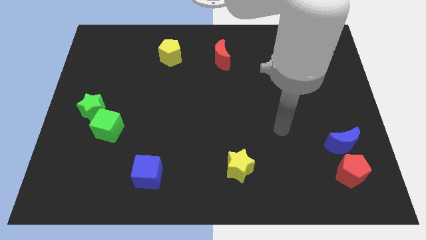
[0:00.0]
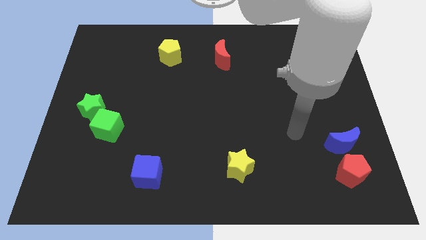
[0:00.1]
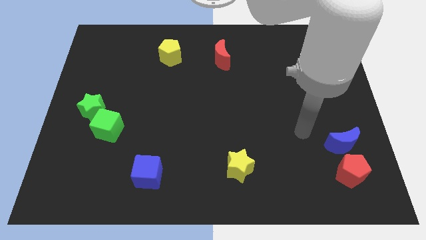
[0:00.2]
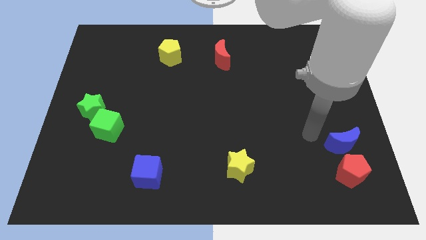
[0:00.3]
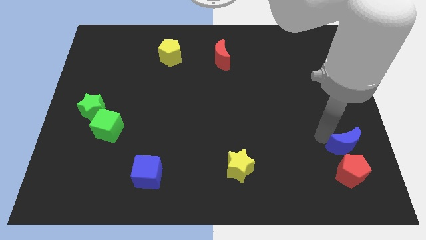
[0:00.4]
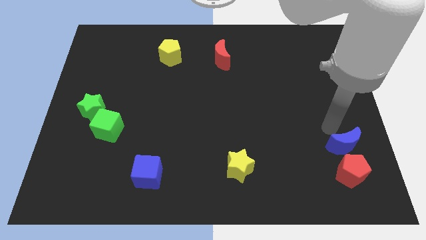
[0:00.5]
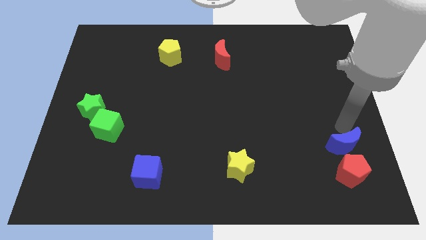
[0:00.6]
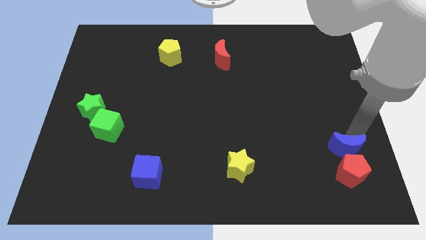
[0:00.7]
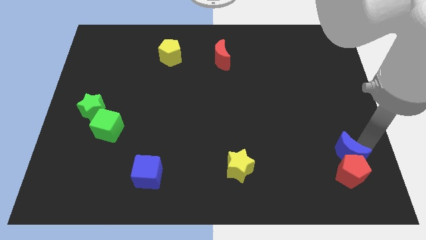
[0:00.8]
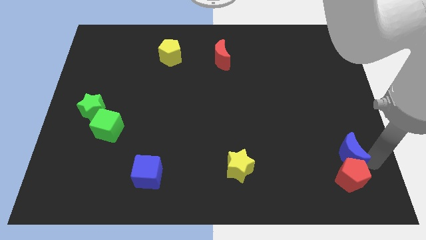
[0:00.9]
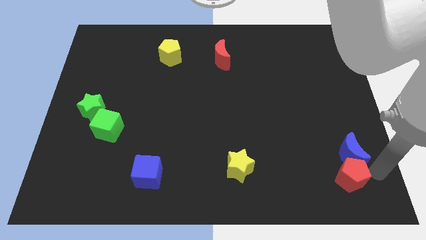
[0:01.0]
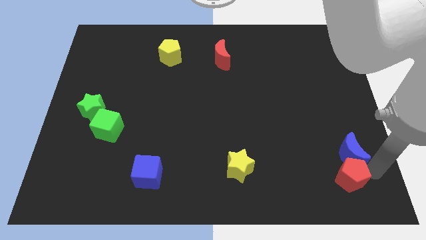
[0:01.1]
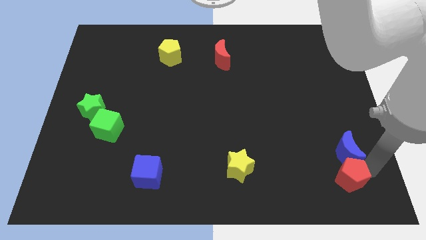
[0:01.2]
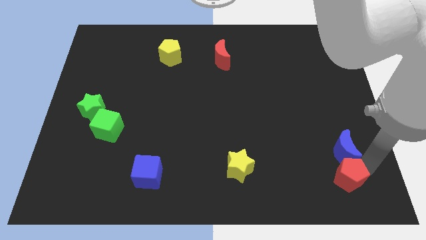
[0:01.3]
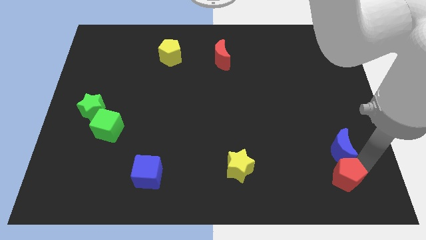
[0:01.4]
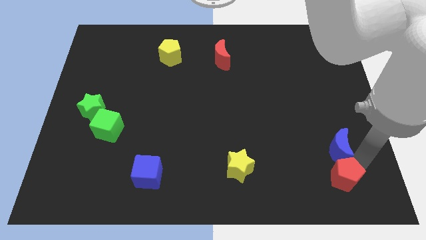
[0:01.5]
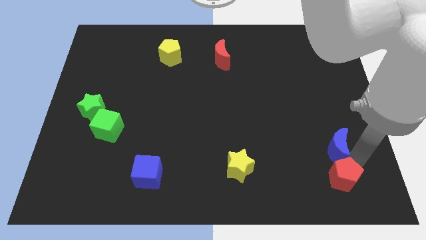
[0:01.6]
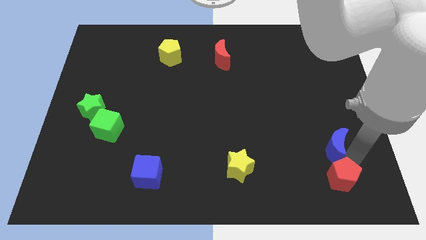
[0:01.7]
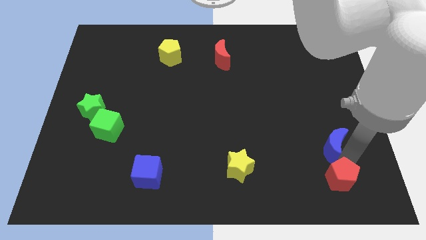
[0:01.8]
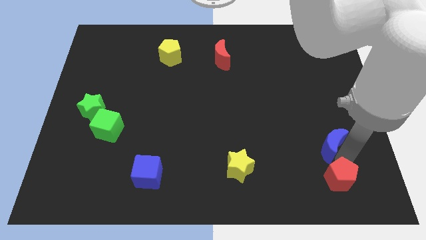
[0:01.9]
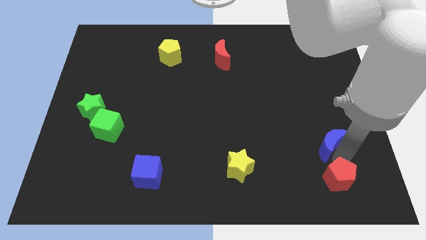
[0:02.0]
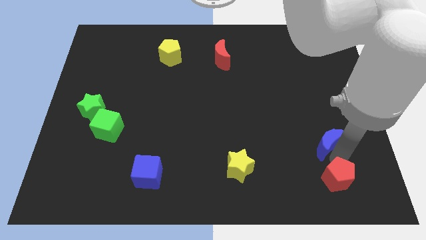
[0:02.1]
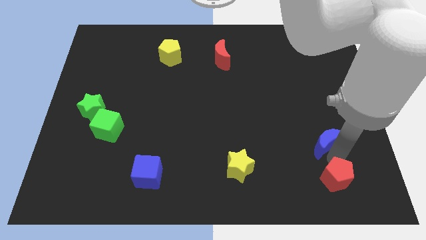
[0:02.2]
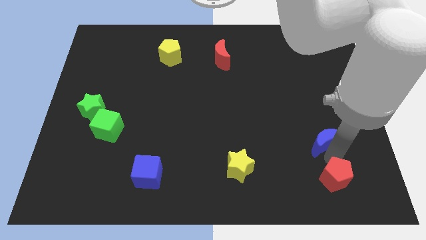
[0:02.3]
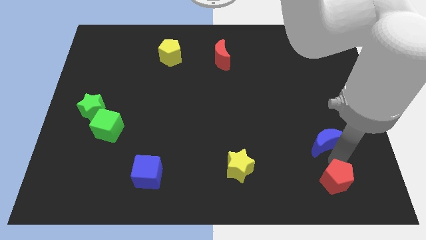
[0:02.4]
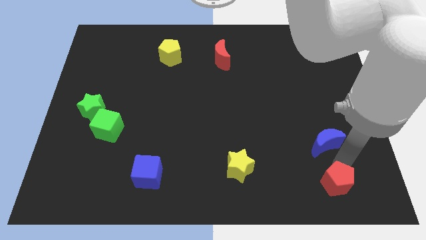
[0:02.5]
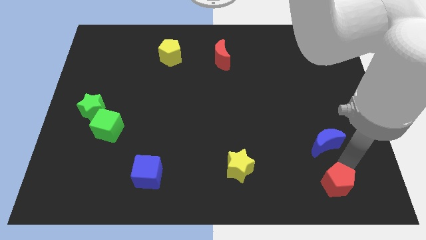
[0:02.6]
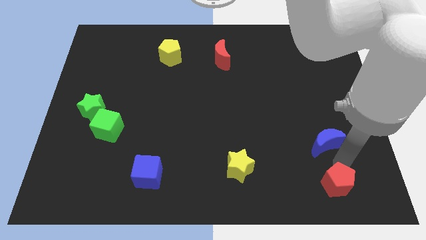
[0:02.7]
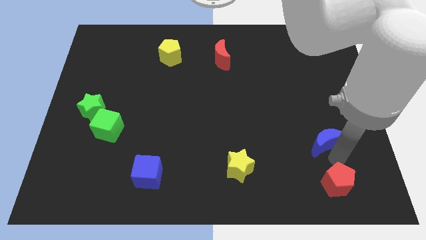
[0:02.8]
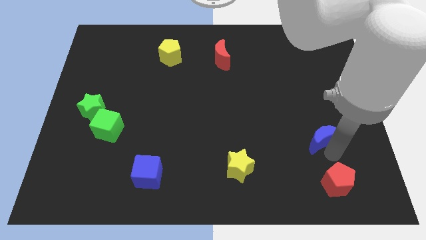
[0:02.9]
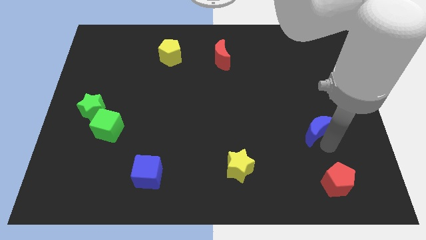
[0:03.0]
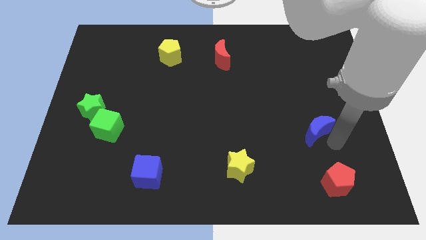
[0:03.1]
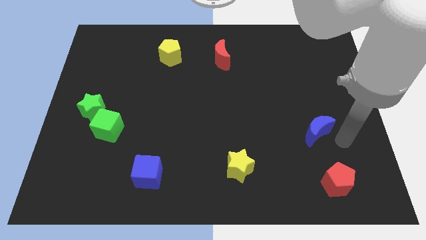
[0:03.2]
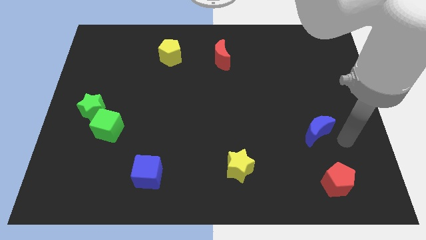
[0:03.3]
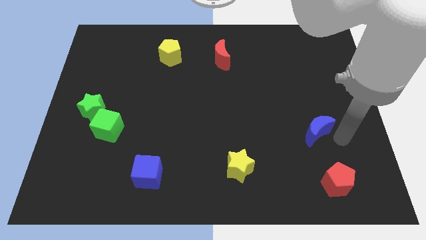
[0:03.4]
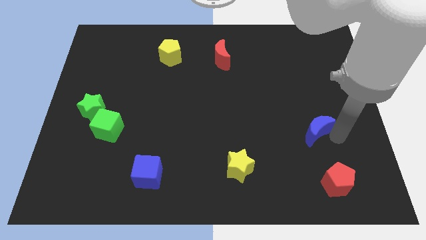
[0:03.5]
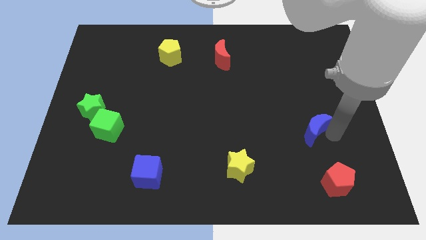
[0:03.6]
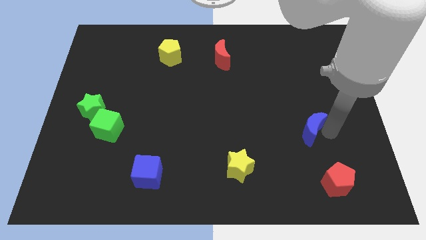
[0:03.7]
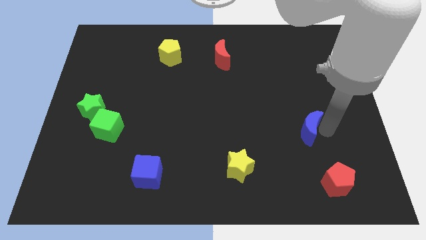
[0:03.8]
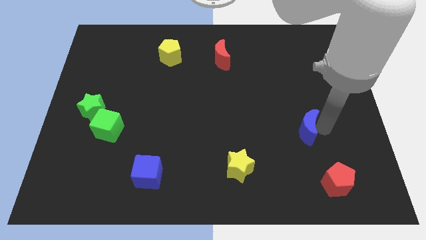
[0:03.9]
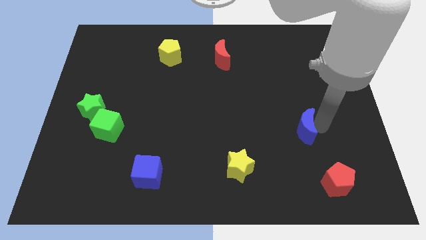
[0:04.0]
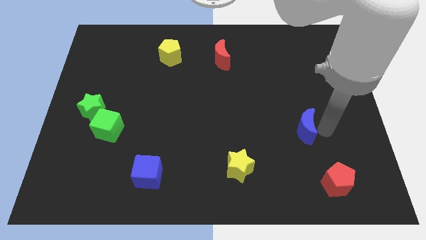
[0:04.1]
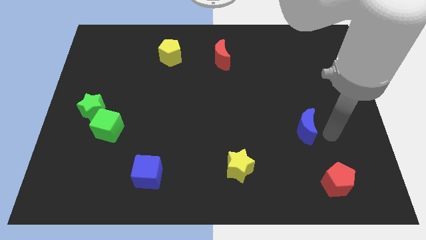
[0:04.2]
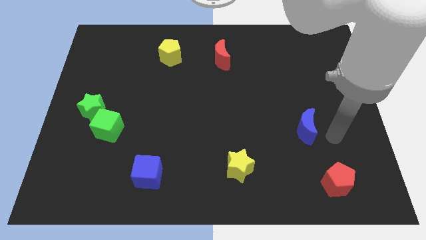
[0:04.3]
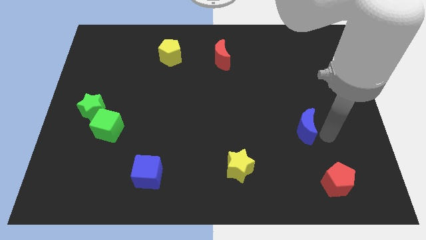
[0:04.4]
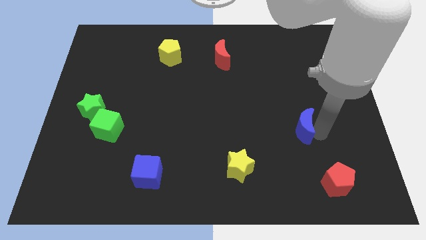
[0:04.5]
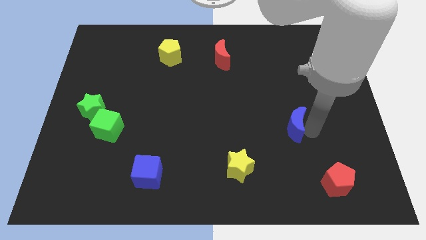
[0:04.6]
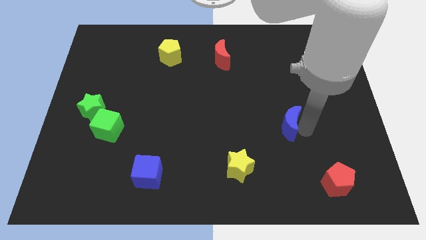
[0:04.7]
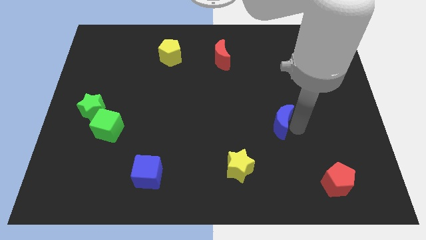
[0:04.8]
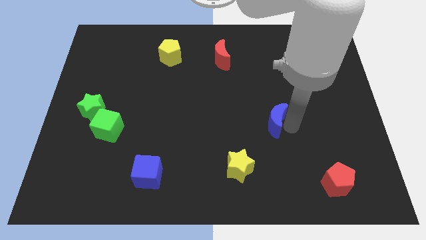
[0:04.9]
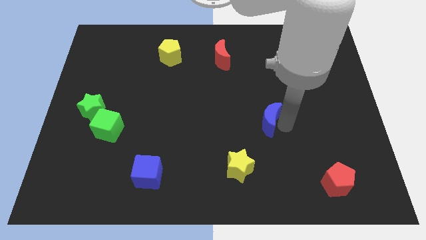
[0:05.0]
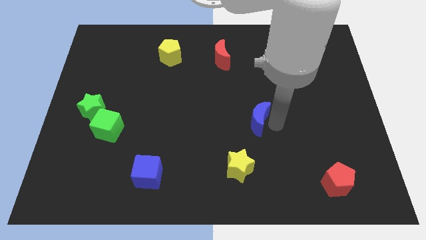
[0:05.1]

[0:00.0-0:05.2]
put the blue moon to the center

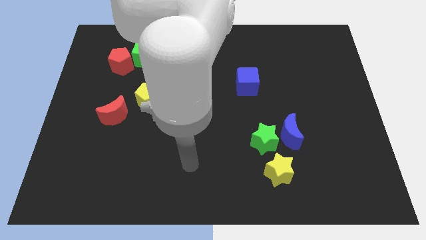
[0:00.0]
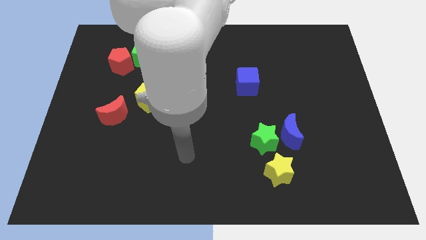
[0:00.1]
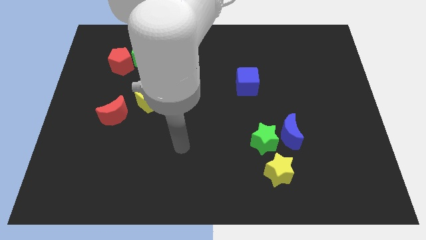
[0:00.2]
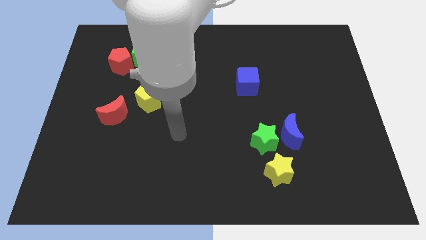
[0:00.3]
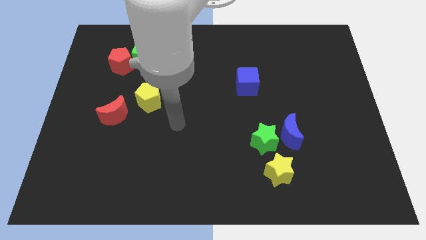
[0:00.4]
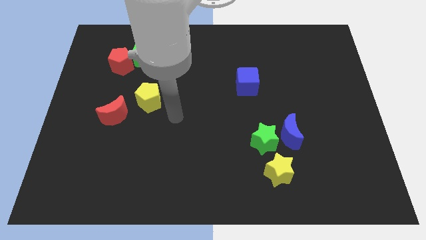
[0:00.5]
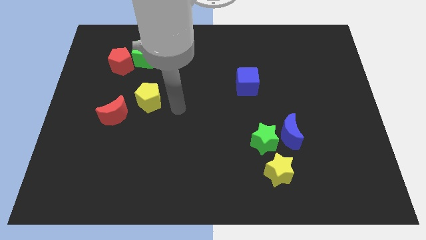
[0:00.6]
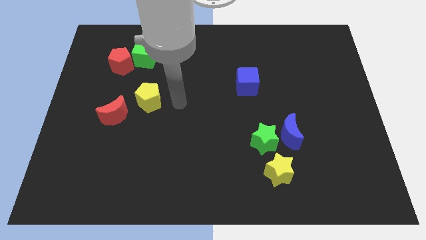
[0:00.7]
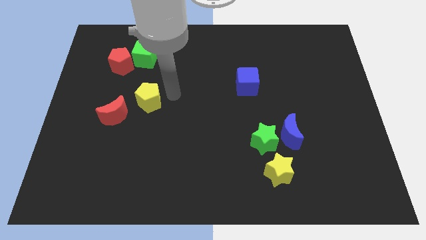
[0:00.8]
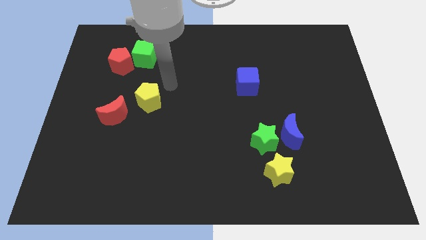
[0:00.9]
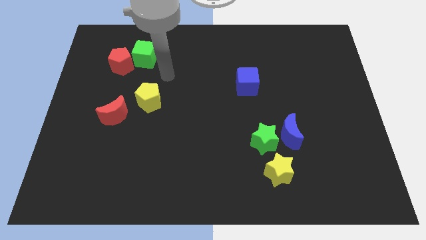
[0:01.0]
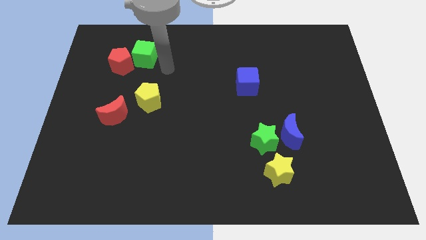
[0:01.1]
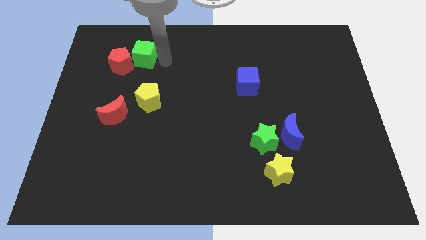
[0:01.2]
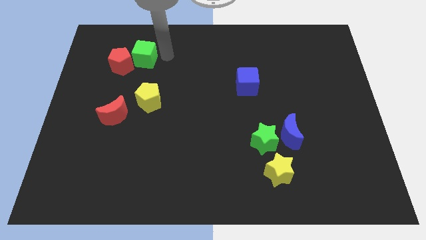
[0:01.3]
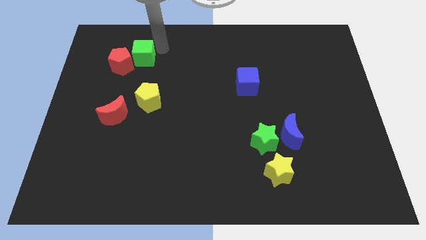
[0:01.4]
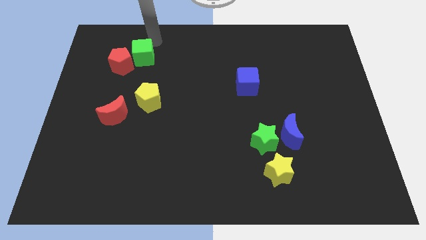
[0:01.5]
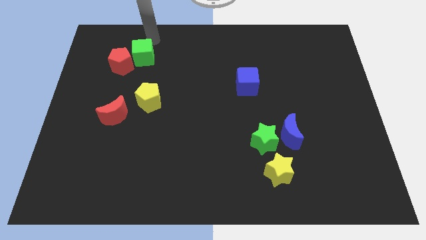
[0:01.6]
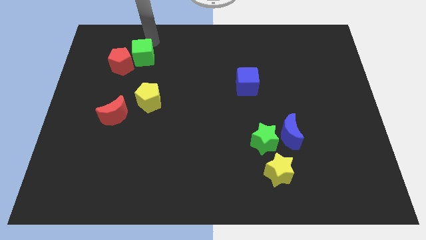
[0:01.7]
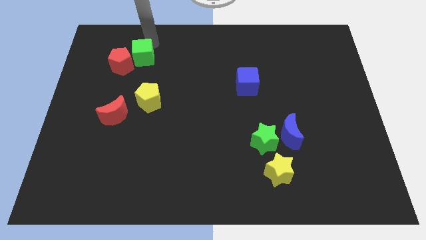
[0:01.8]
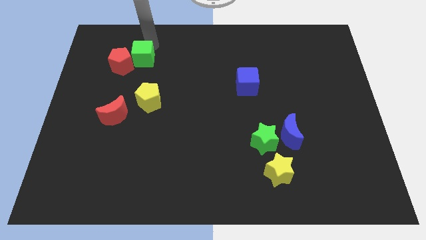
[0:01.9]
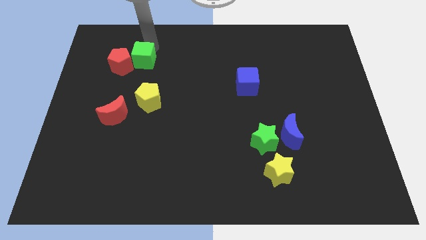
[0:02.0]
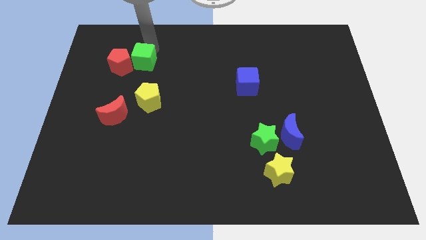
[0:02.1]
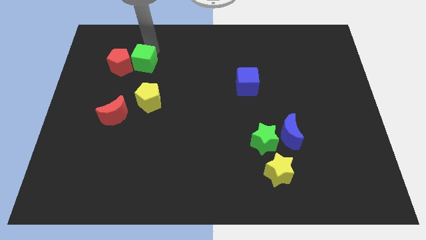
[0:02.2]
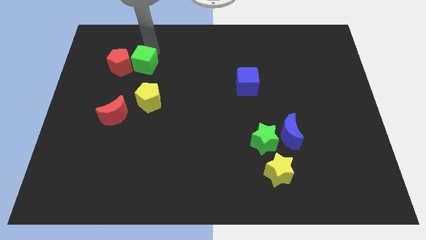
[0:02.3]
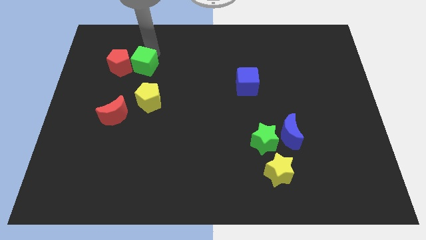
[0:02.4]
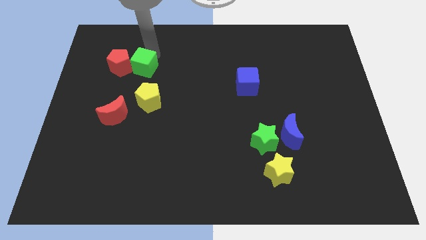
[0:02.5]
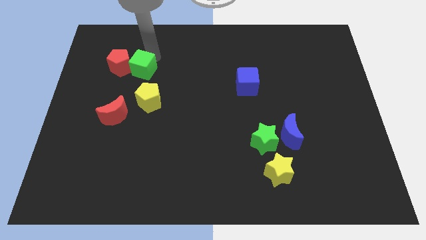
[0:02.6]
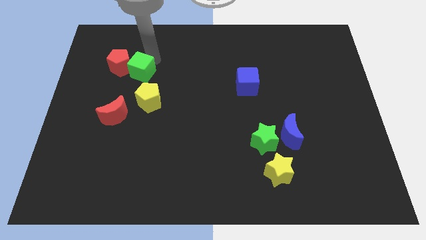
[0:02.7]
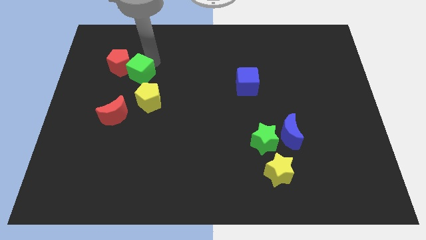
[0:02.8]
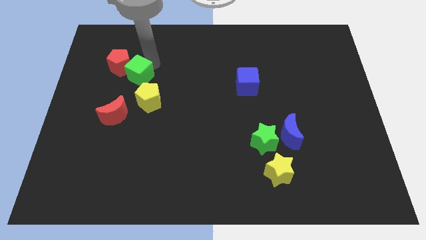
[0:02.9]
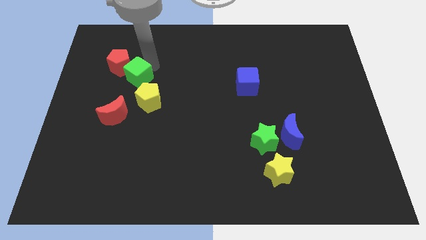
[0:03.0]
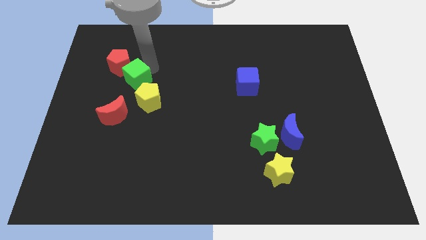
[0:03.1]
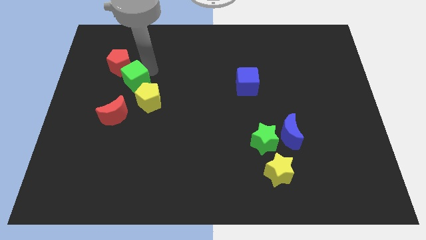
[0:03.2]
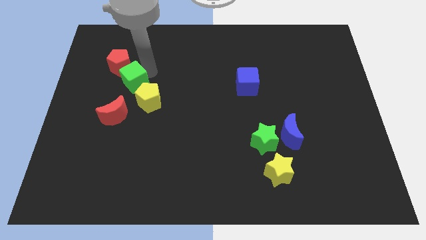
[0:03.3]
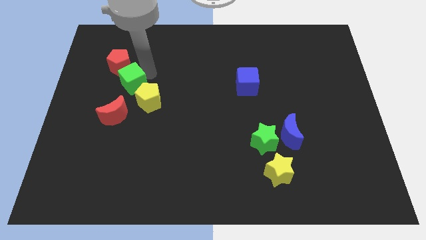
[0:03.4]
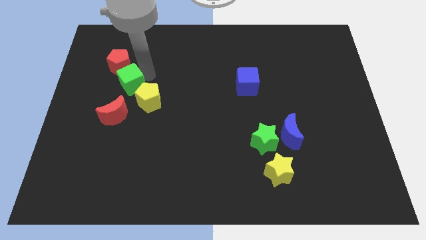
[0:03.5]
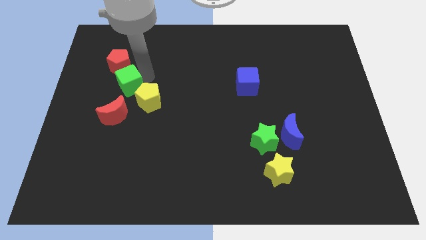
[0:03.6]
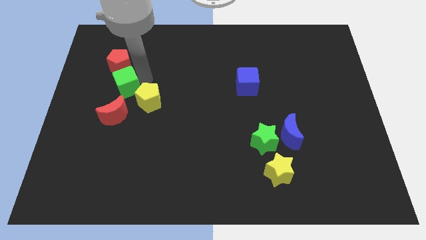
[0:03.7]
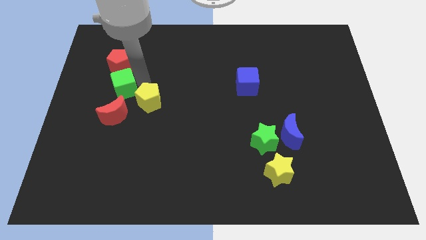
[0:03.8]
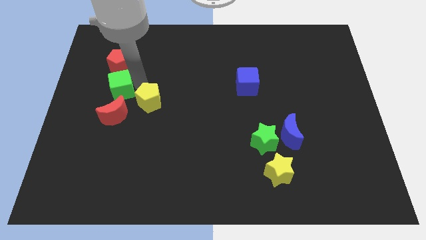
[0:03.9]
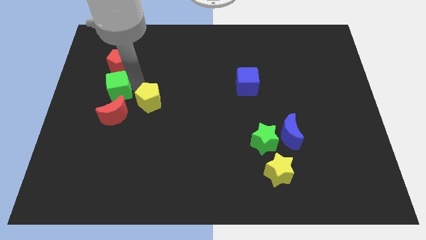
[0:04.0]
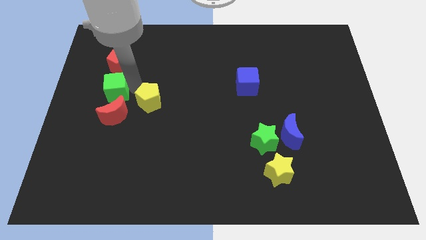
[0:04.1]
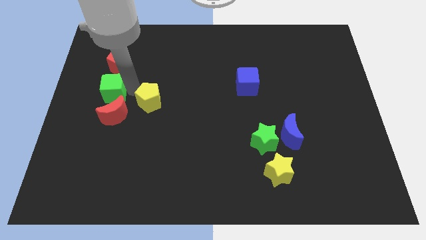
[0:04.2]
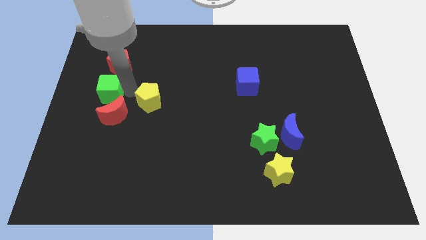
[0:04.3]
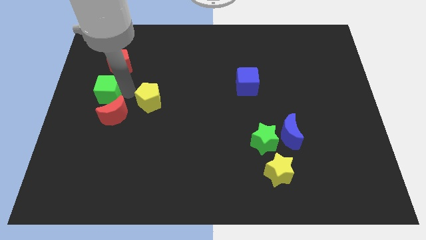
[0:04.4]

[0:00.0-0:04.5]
move the green cube to the left side
